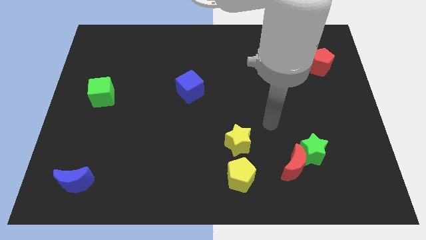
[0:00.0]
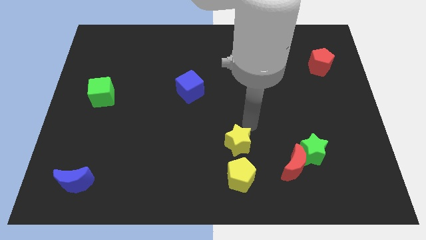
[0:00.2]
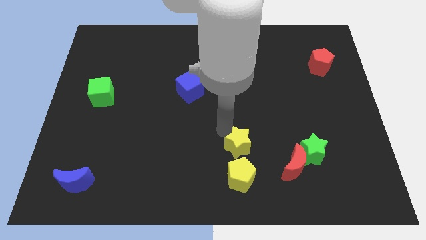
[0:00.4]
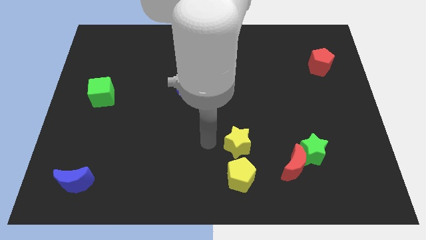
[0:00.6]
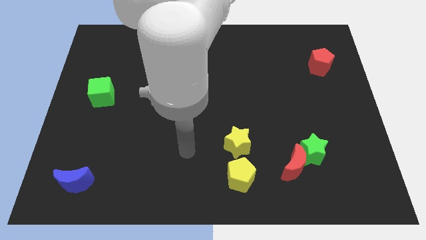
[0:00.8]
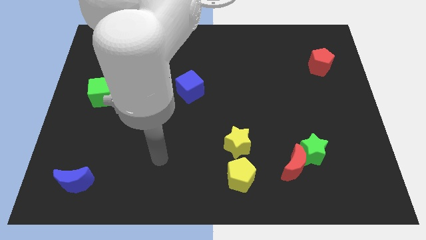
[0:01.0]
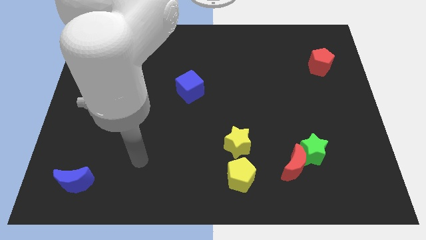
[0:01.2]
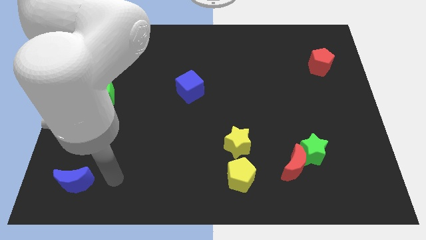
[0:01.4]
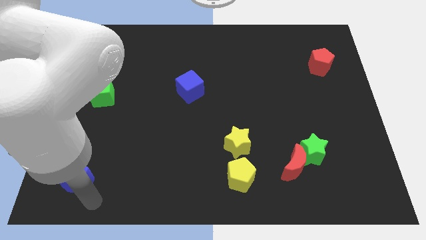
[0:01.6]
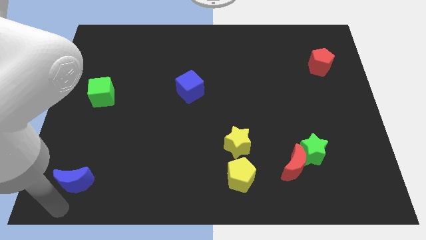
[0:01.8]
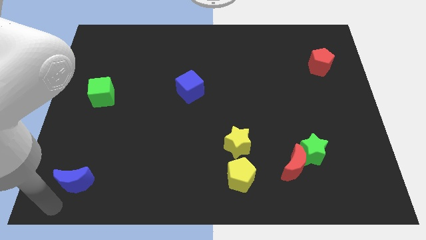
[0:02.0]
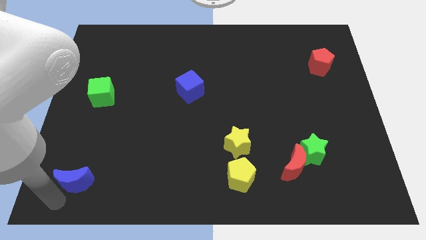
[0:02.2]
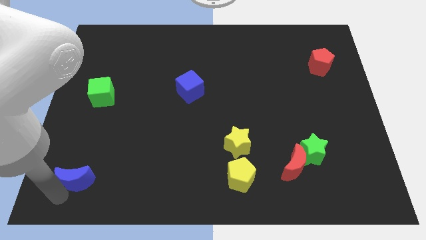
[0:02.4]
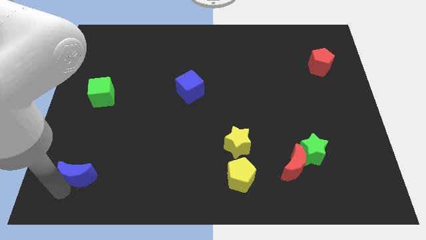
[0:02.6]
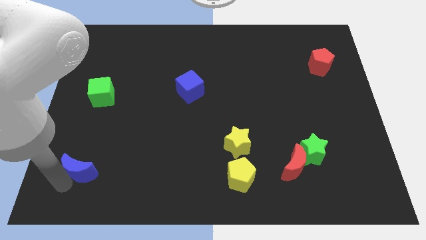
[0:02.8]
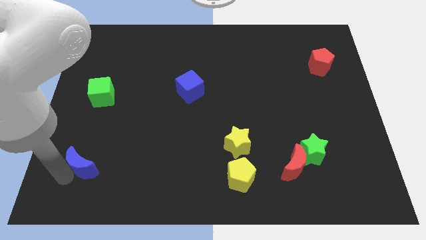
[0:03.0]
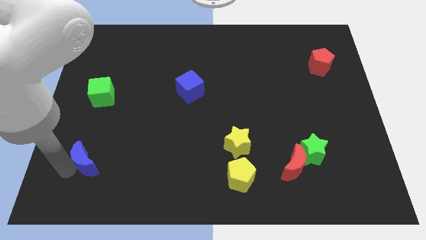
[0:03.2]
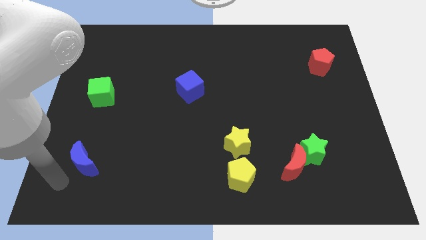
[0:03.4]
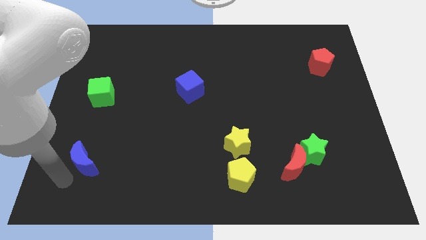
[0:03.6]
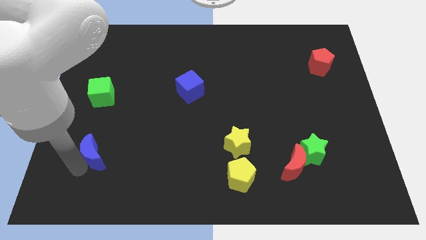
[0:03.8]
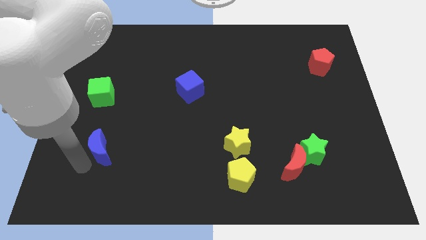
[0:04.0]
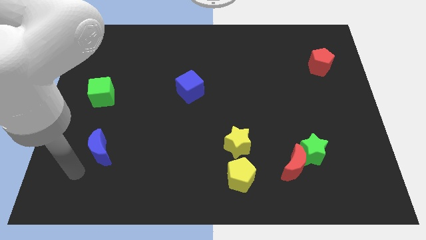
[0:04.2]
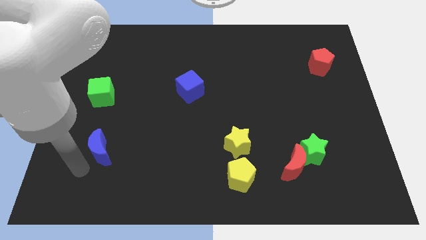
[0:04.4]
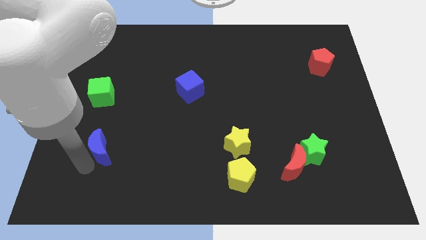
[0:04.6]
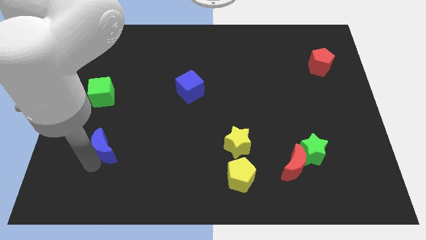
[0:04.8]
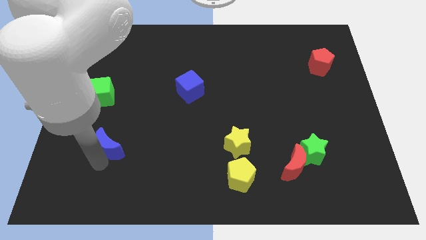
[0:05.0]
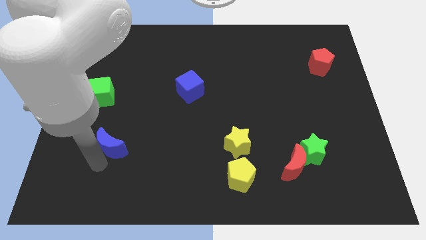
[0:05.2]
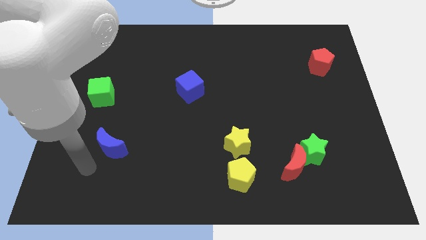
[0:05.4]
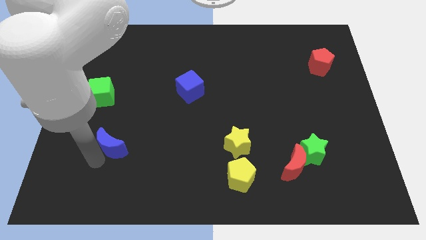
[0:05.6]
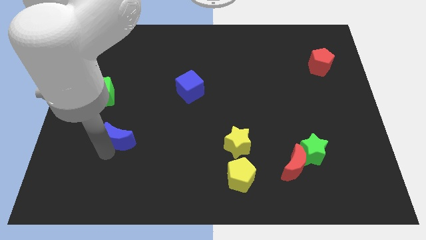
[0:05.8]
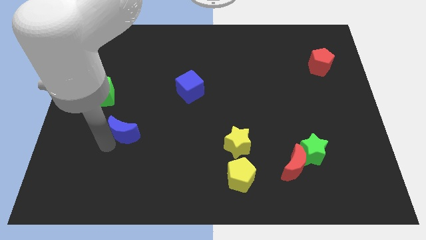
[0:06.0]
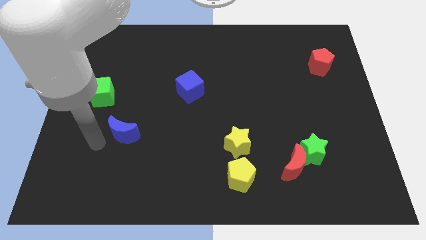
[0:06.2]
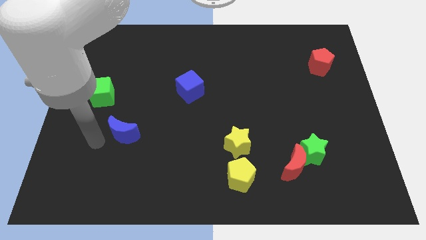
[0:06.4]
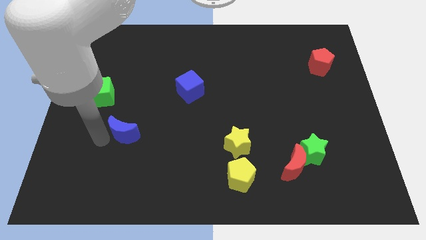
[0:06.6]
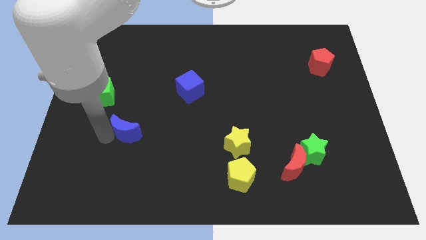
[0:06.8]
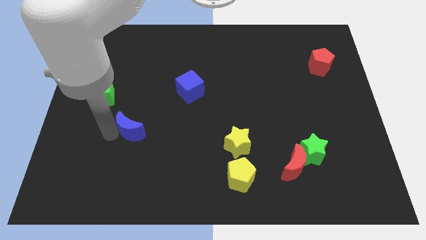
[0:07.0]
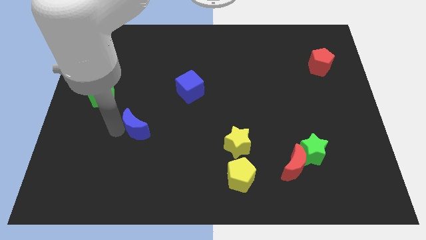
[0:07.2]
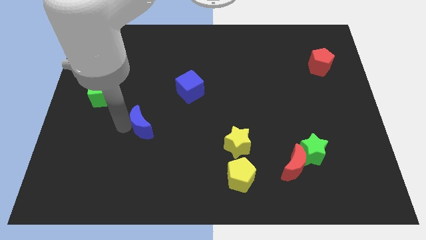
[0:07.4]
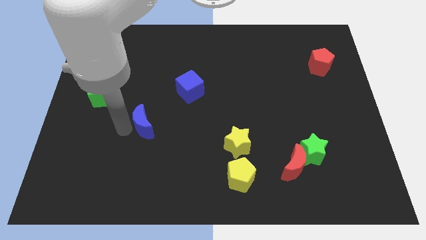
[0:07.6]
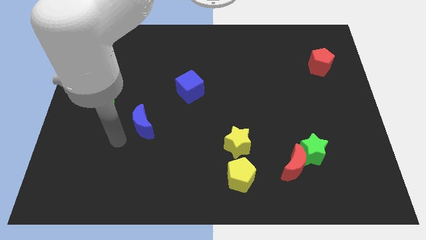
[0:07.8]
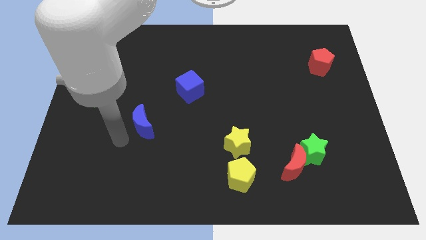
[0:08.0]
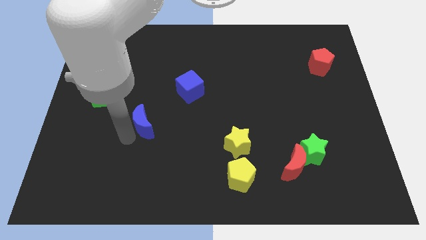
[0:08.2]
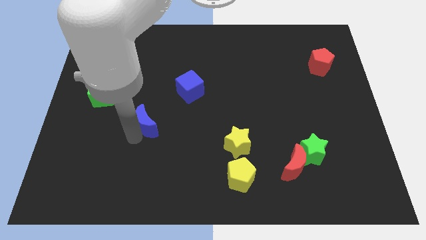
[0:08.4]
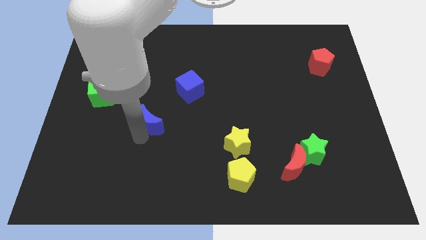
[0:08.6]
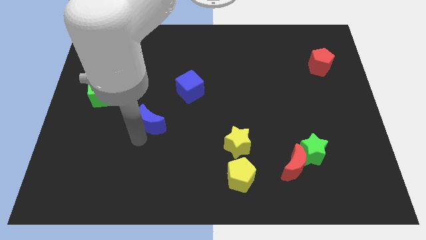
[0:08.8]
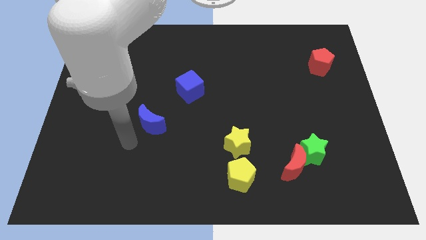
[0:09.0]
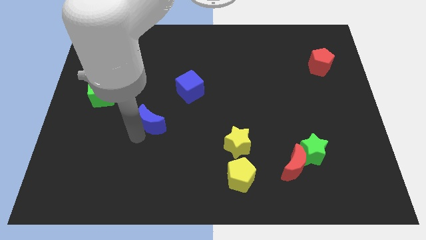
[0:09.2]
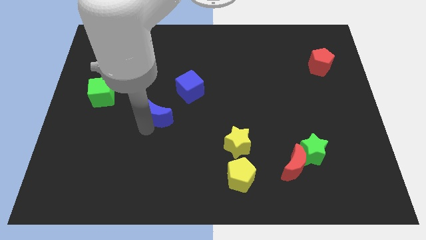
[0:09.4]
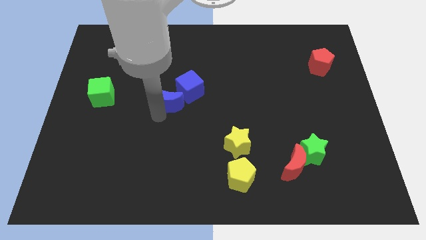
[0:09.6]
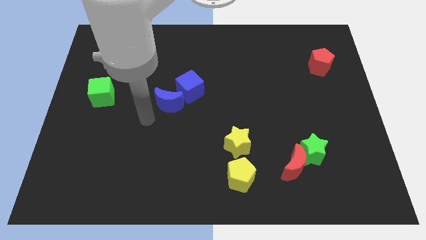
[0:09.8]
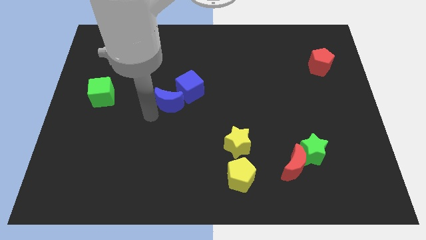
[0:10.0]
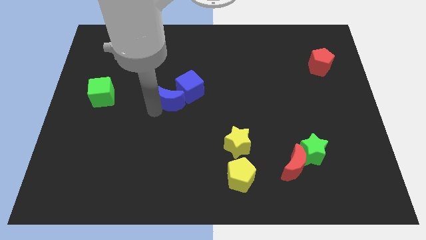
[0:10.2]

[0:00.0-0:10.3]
move the blue moon to the blue cube

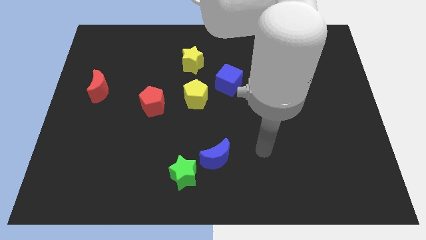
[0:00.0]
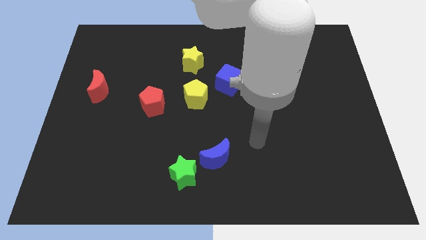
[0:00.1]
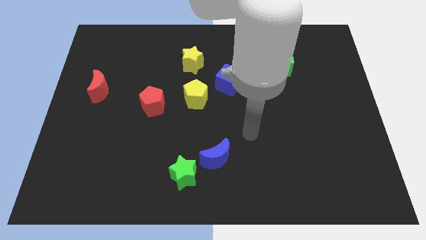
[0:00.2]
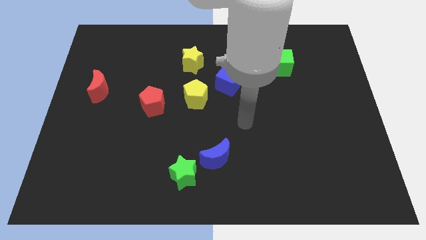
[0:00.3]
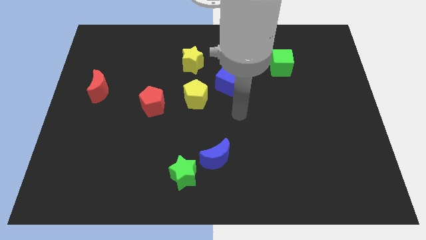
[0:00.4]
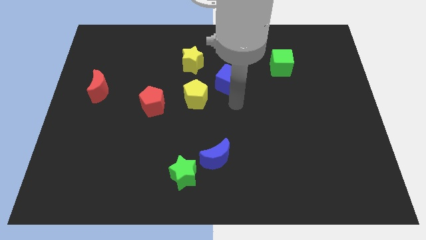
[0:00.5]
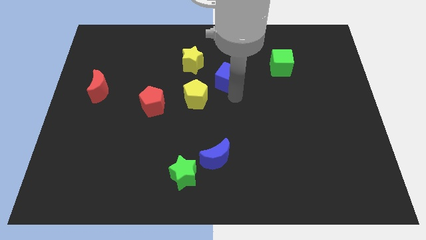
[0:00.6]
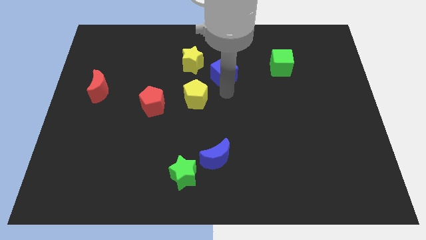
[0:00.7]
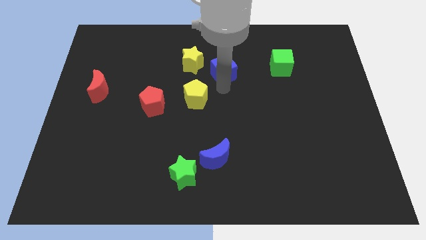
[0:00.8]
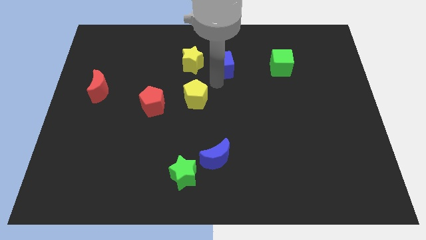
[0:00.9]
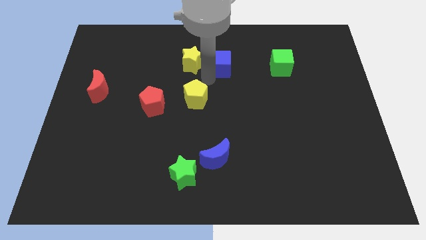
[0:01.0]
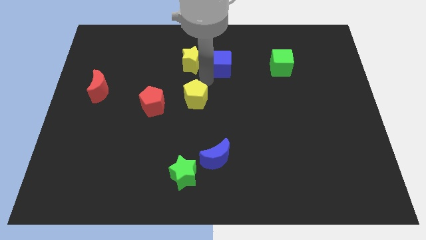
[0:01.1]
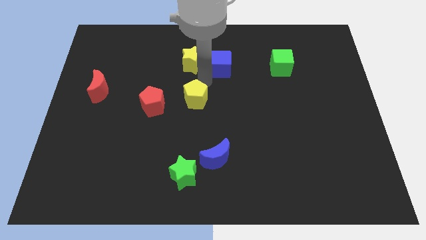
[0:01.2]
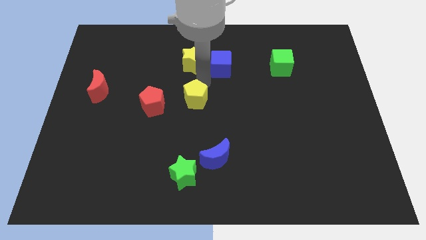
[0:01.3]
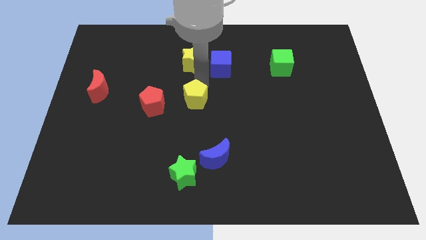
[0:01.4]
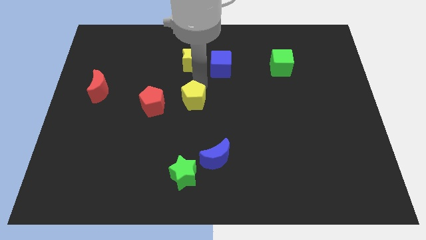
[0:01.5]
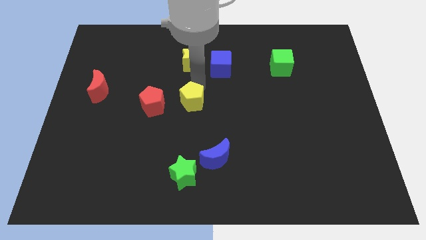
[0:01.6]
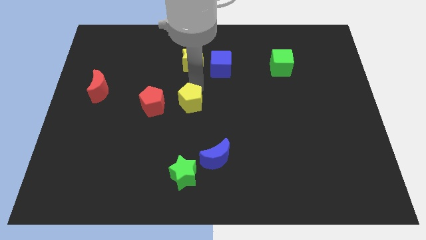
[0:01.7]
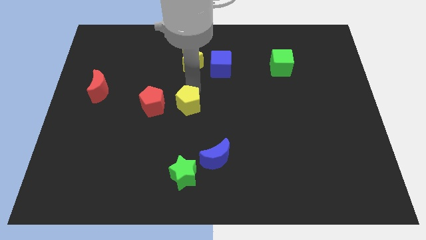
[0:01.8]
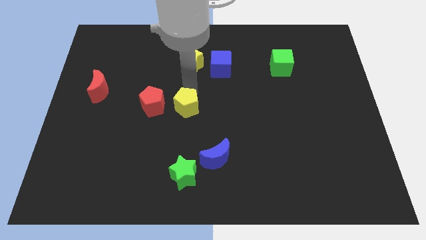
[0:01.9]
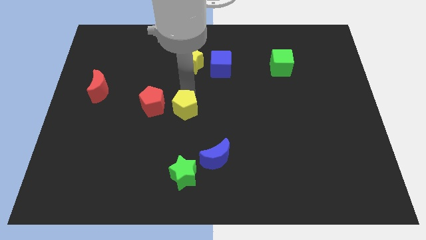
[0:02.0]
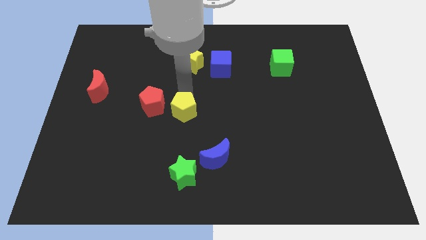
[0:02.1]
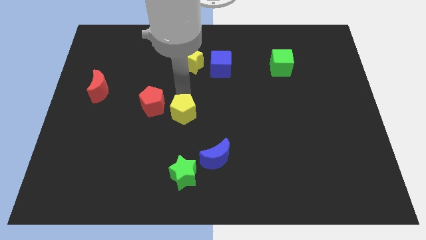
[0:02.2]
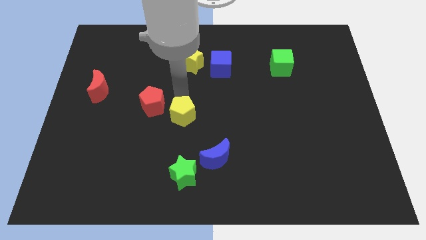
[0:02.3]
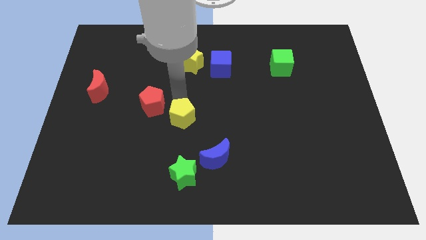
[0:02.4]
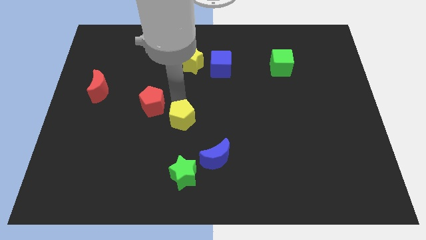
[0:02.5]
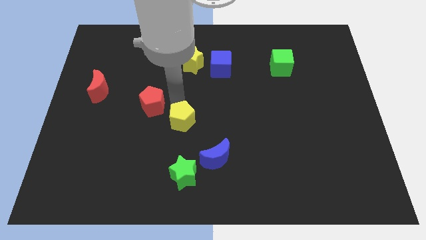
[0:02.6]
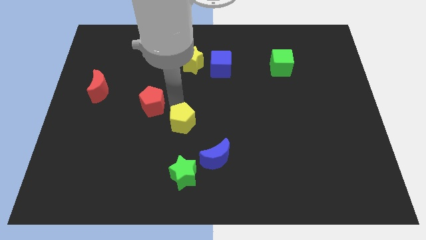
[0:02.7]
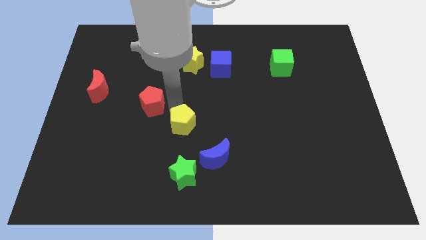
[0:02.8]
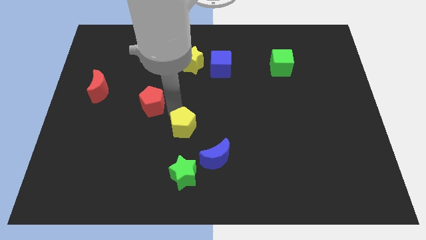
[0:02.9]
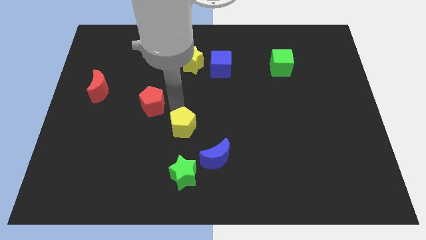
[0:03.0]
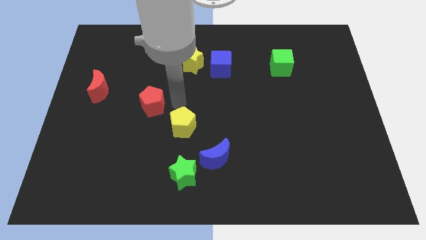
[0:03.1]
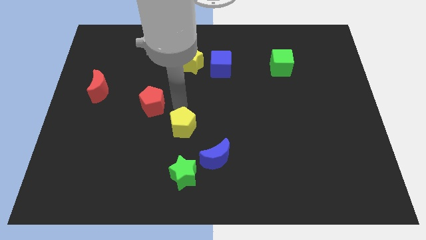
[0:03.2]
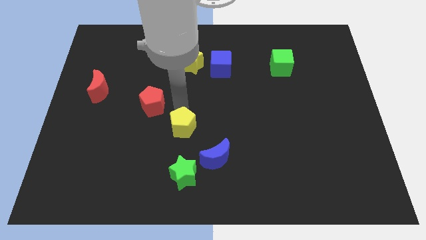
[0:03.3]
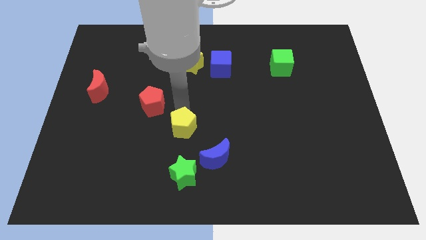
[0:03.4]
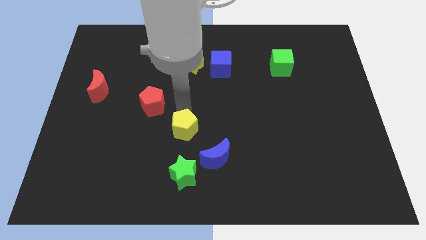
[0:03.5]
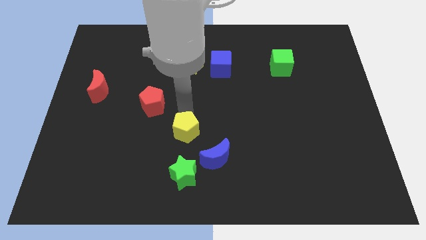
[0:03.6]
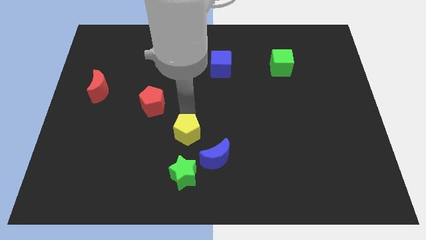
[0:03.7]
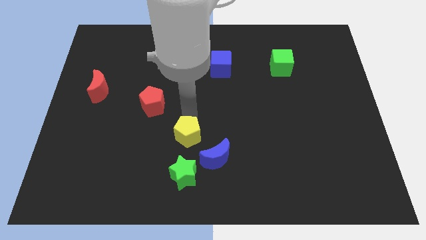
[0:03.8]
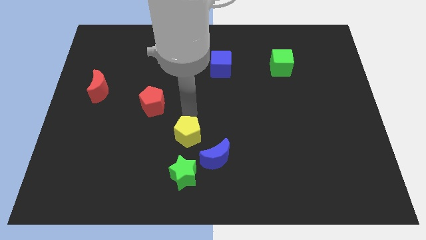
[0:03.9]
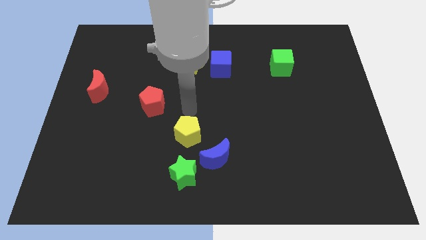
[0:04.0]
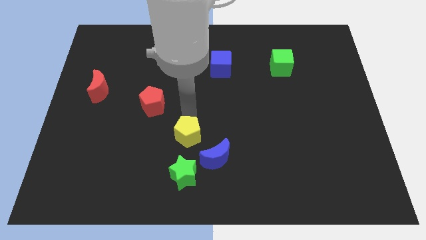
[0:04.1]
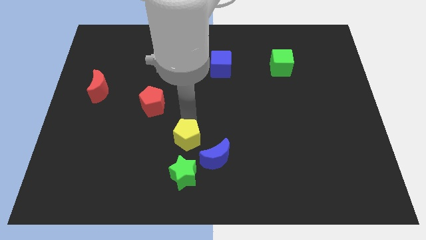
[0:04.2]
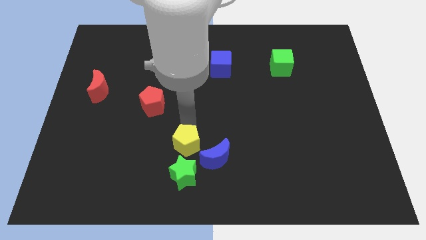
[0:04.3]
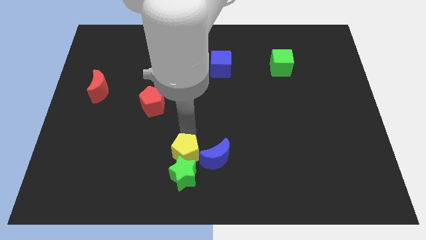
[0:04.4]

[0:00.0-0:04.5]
move the yellow pentagon to the green star
